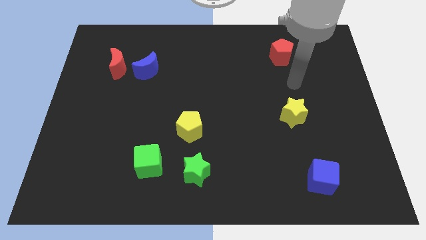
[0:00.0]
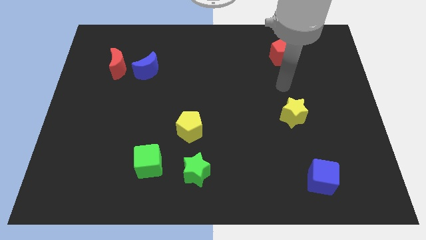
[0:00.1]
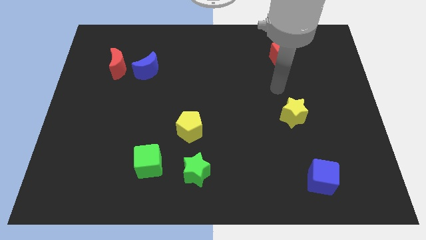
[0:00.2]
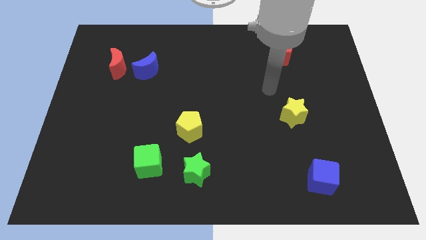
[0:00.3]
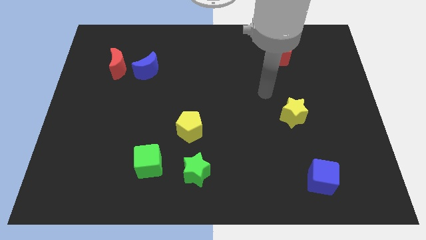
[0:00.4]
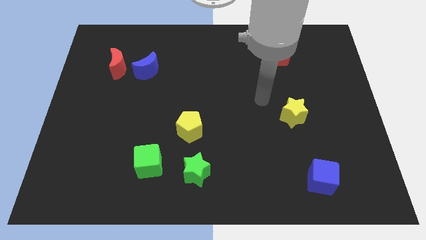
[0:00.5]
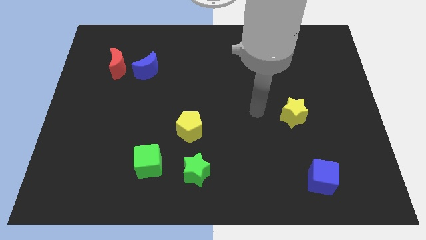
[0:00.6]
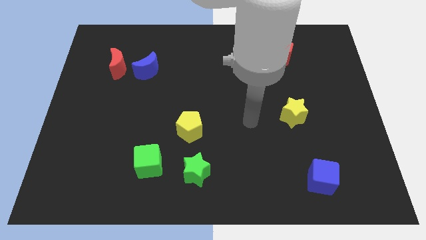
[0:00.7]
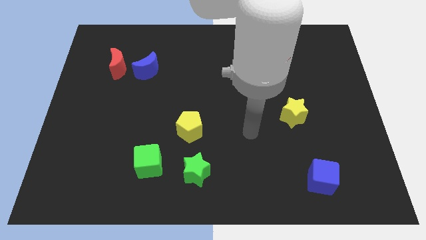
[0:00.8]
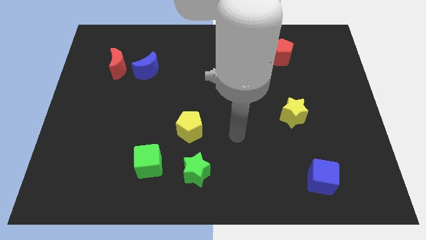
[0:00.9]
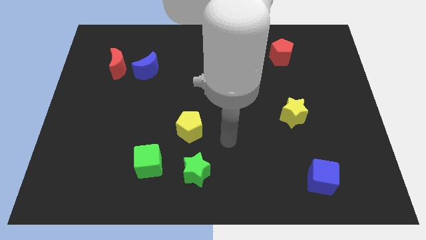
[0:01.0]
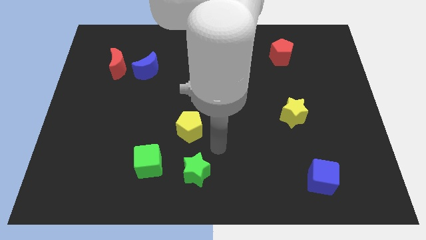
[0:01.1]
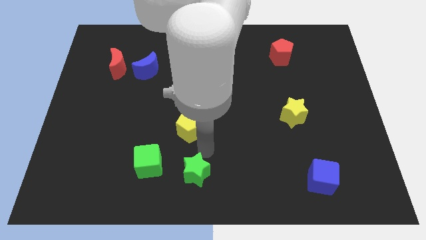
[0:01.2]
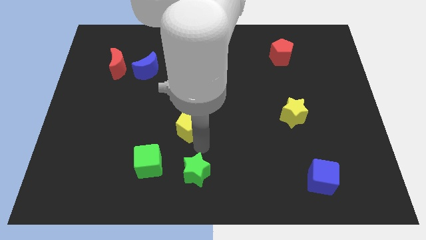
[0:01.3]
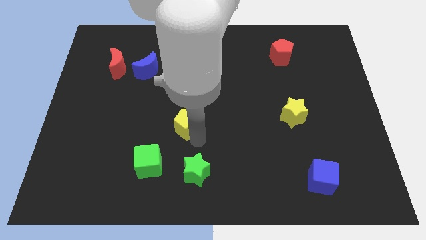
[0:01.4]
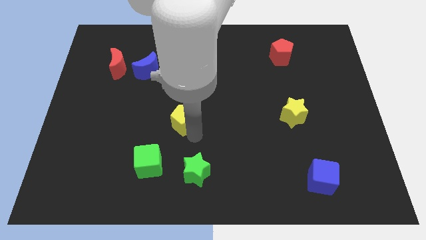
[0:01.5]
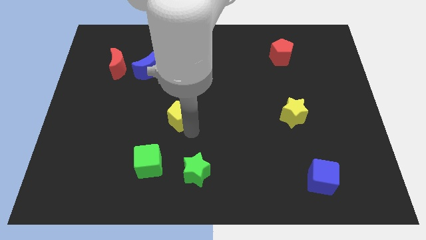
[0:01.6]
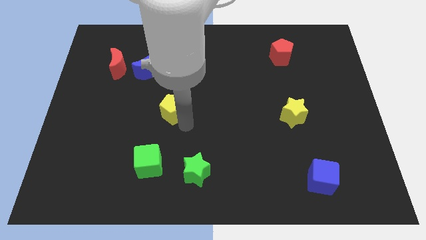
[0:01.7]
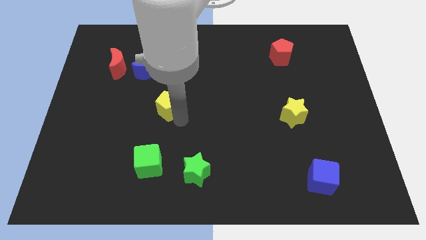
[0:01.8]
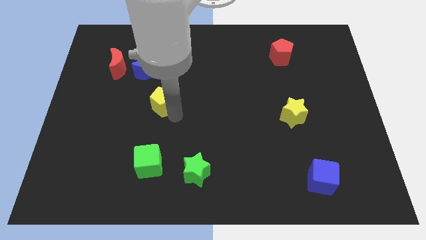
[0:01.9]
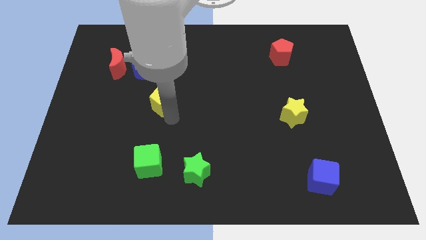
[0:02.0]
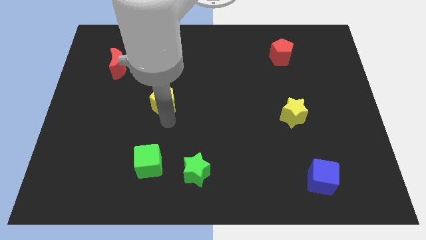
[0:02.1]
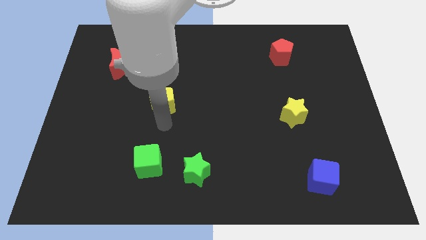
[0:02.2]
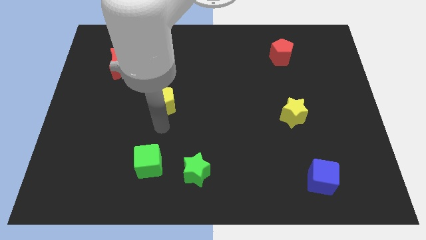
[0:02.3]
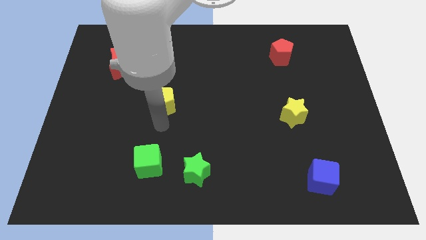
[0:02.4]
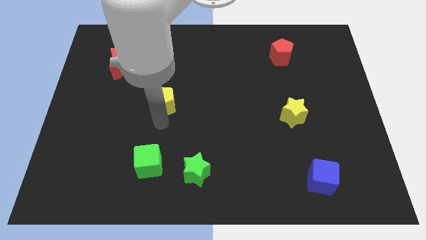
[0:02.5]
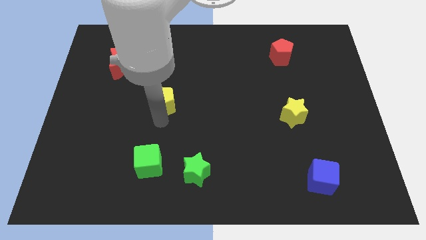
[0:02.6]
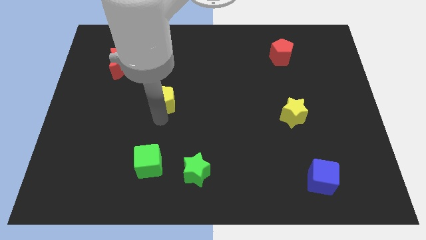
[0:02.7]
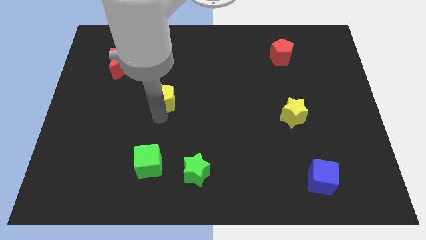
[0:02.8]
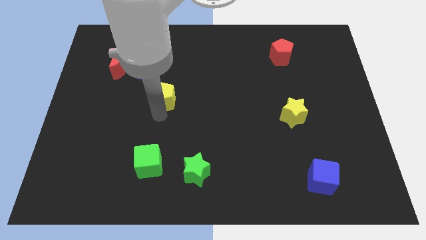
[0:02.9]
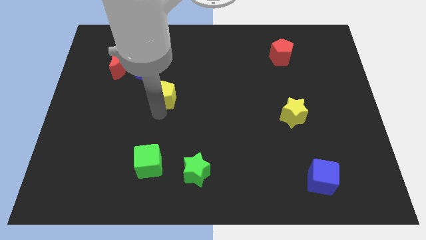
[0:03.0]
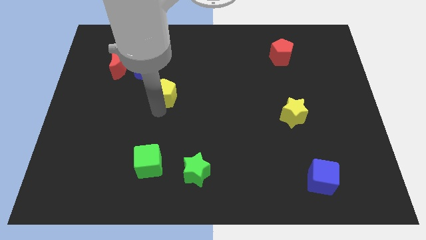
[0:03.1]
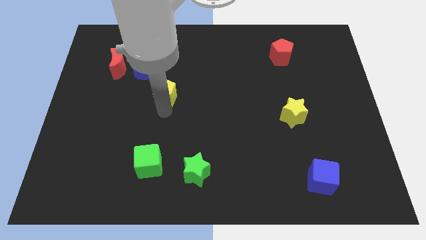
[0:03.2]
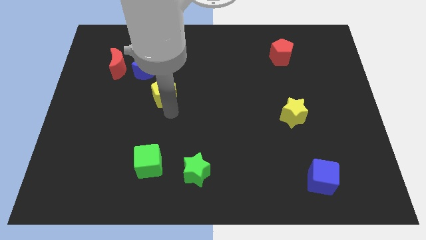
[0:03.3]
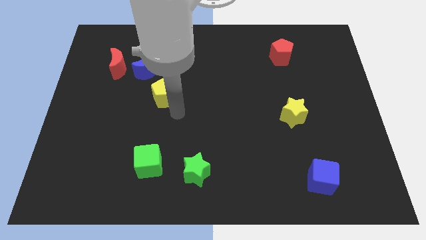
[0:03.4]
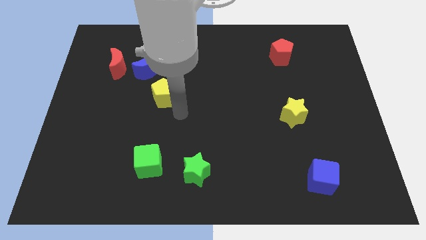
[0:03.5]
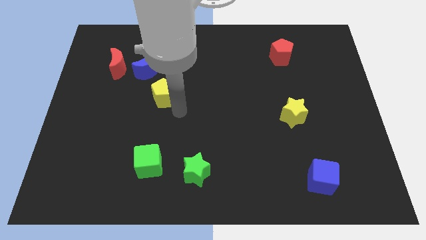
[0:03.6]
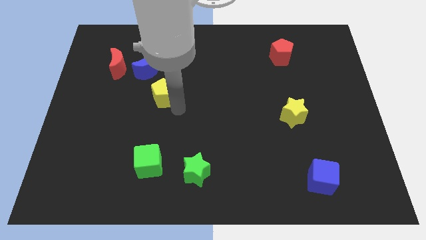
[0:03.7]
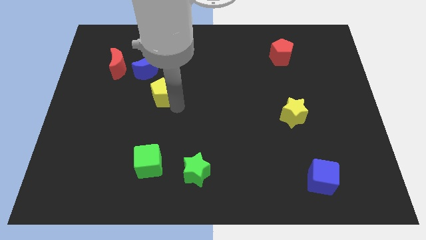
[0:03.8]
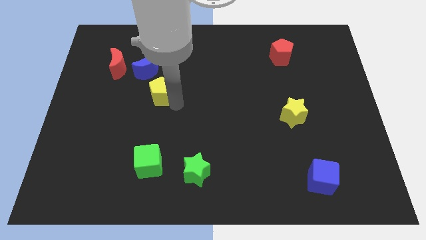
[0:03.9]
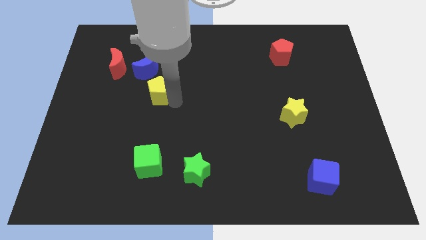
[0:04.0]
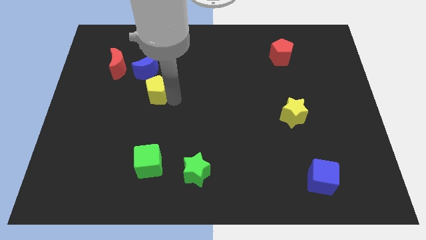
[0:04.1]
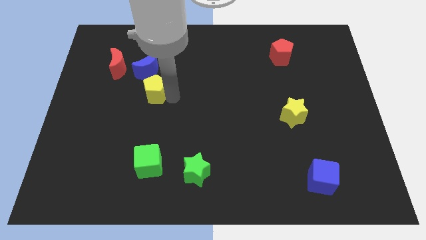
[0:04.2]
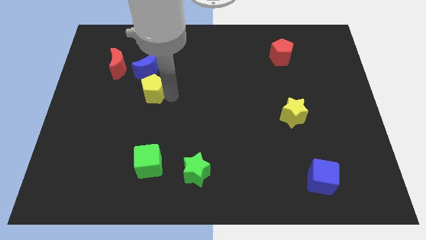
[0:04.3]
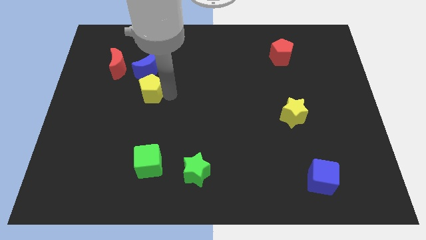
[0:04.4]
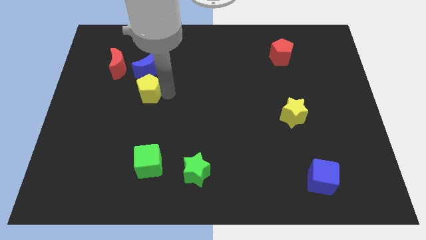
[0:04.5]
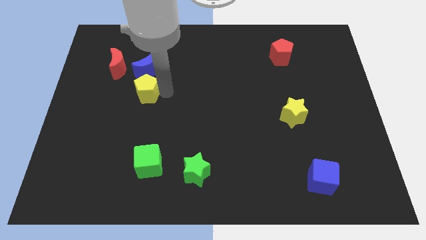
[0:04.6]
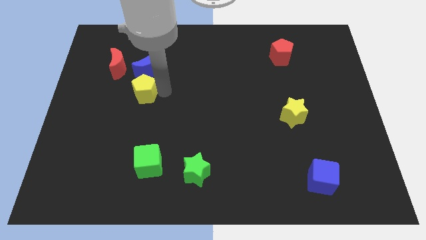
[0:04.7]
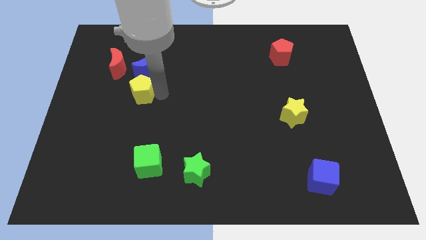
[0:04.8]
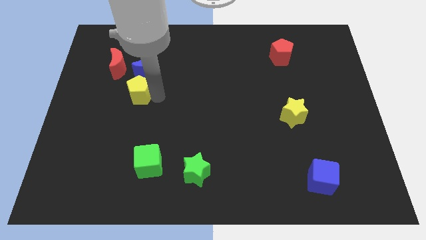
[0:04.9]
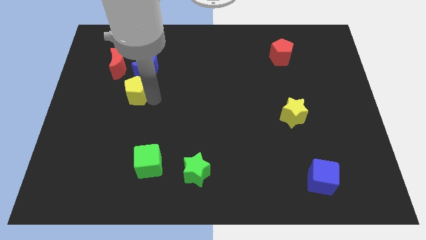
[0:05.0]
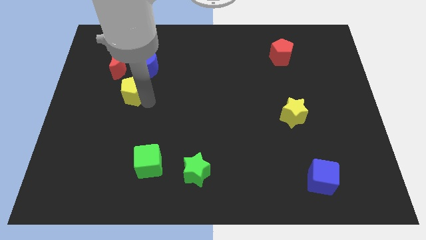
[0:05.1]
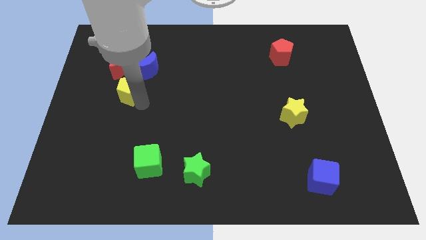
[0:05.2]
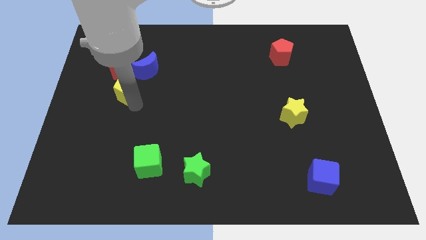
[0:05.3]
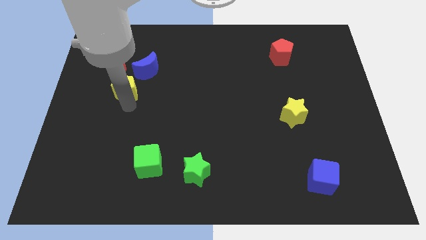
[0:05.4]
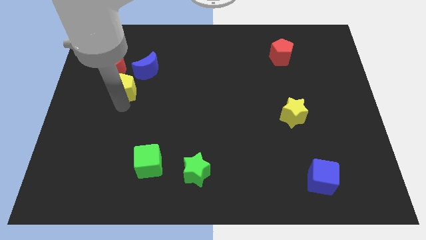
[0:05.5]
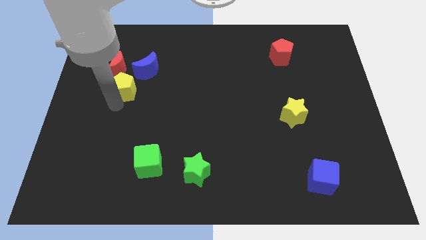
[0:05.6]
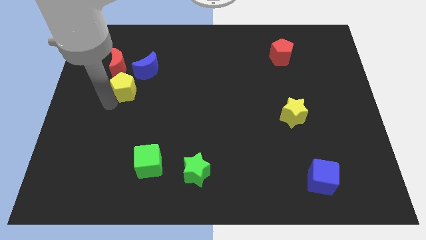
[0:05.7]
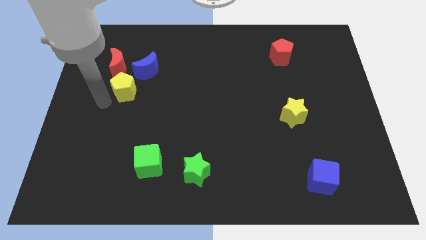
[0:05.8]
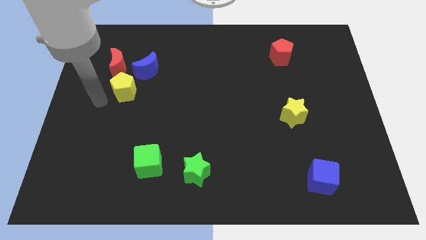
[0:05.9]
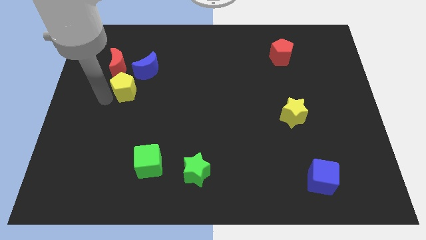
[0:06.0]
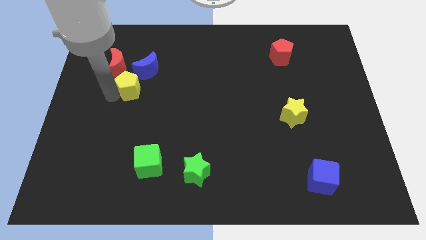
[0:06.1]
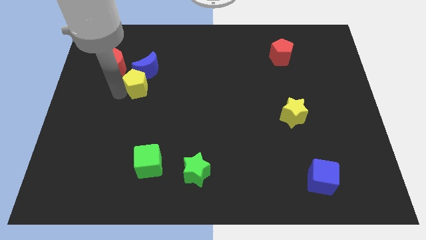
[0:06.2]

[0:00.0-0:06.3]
move the yellow pentagon close to the blue moon

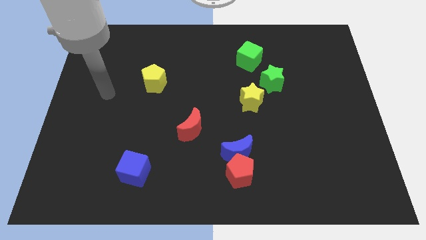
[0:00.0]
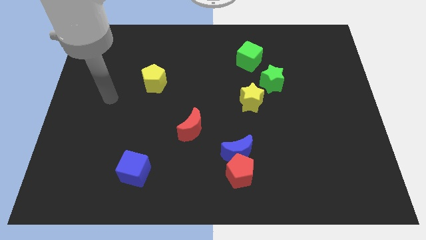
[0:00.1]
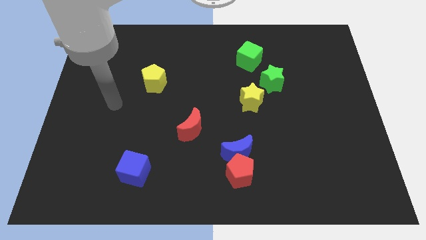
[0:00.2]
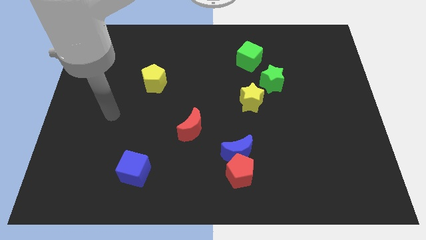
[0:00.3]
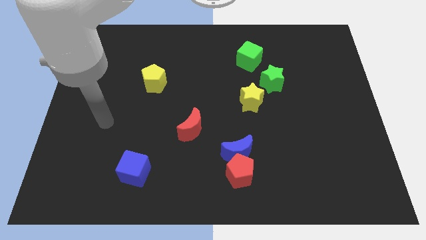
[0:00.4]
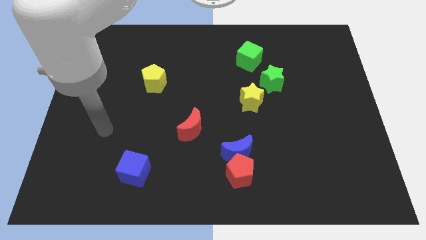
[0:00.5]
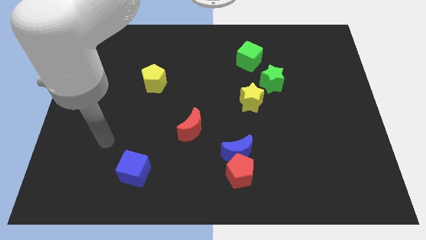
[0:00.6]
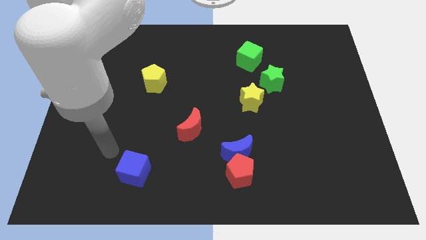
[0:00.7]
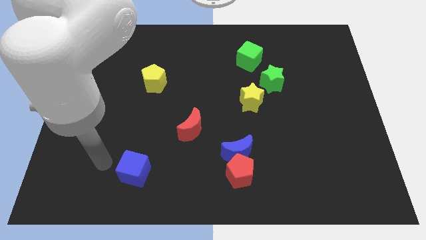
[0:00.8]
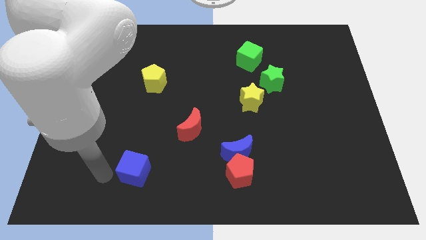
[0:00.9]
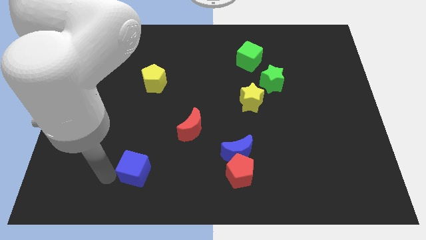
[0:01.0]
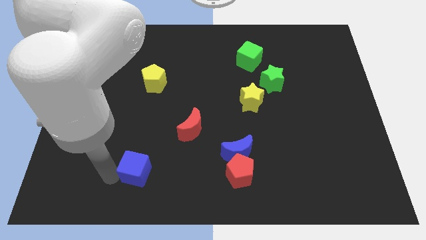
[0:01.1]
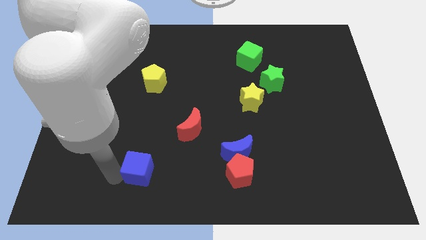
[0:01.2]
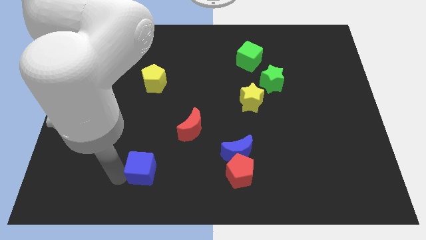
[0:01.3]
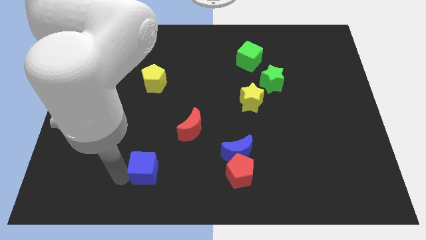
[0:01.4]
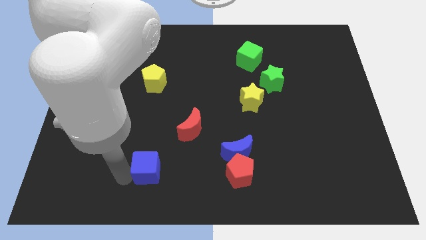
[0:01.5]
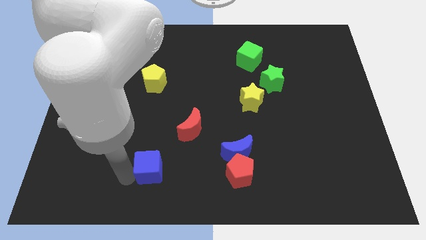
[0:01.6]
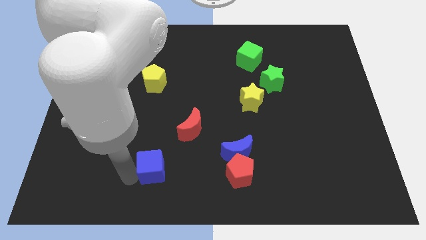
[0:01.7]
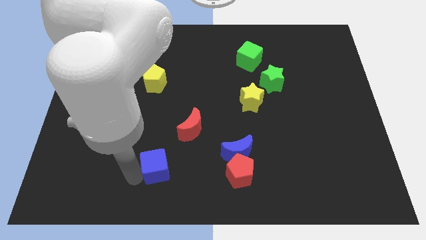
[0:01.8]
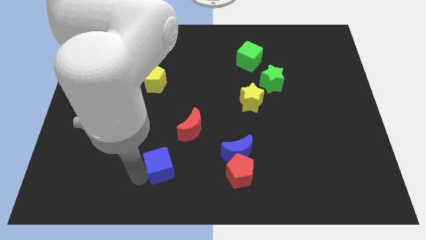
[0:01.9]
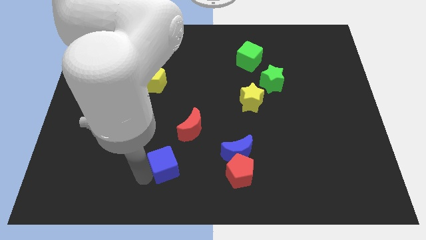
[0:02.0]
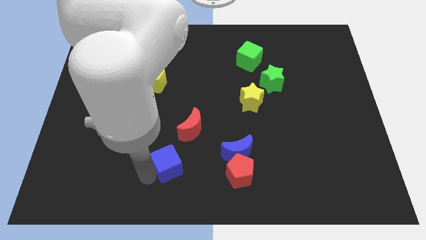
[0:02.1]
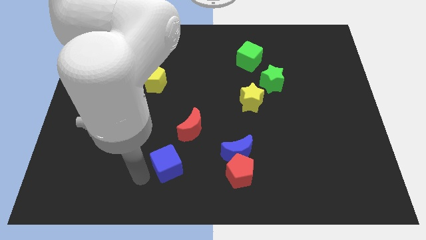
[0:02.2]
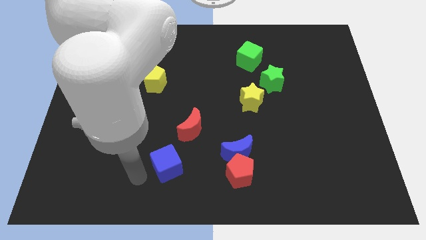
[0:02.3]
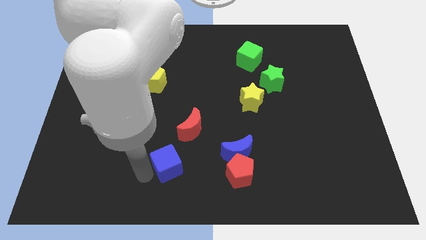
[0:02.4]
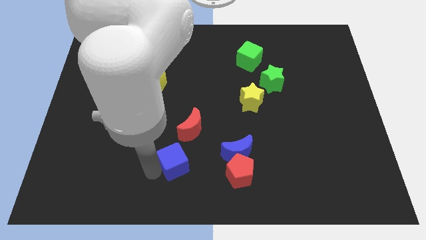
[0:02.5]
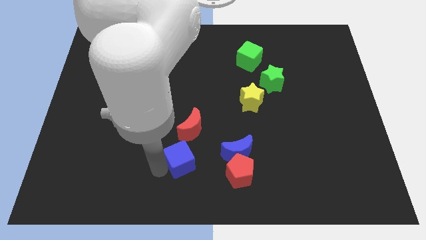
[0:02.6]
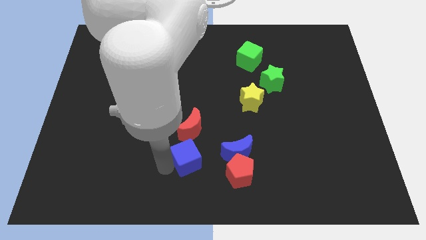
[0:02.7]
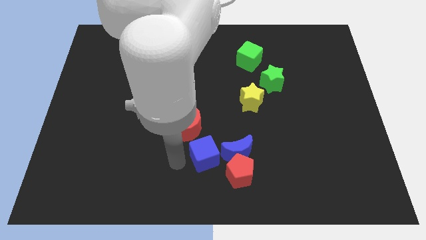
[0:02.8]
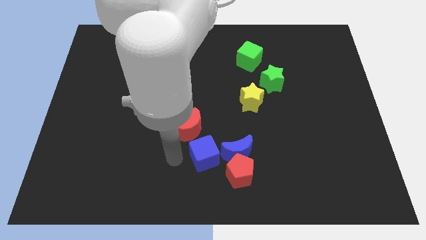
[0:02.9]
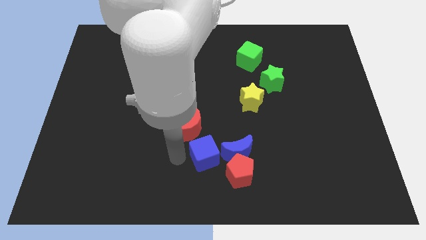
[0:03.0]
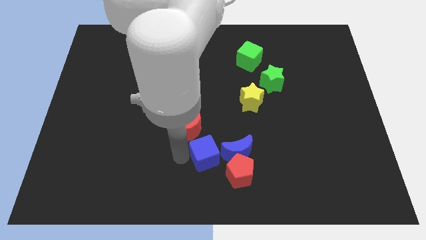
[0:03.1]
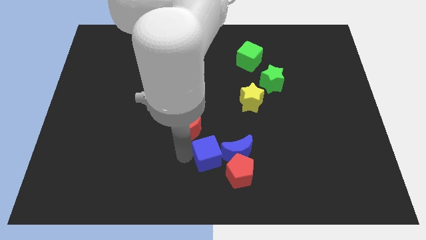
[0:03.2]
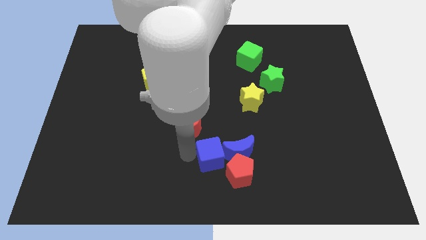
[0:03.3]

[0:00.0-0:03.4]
slide the blue cube towards the blue moon
